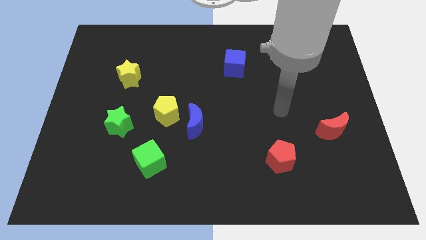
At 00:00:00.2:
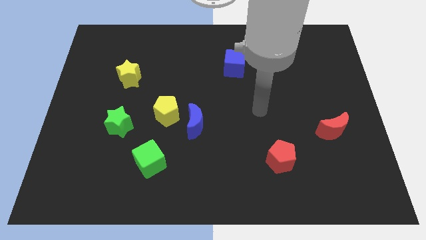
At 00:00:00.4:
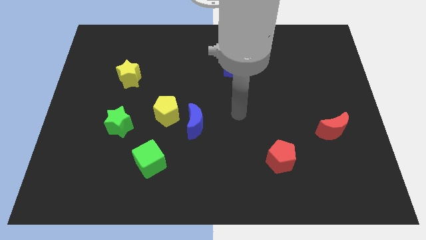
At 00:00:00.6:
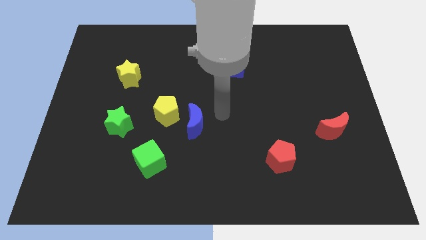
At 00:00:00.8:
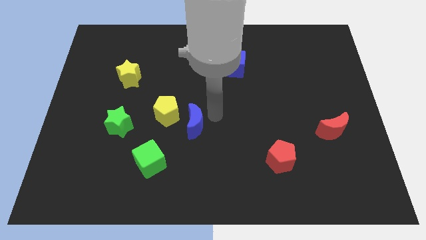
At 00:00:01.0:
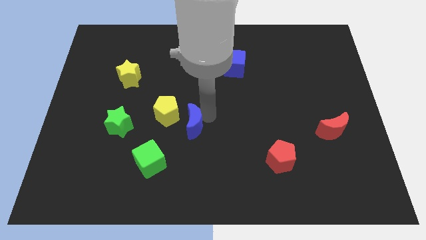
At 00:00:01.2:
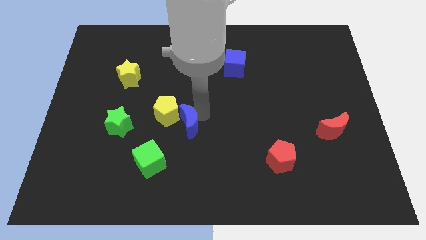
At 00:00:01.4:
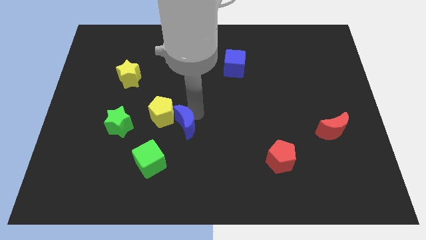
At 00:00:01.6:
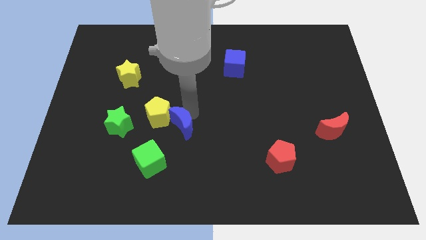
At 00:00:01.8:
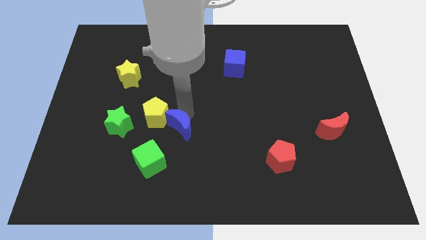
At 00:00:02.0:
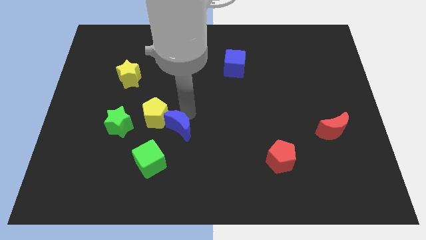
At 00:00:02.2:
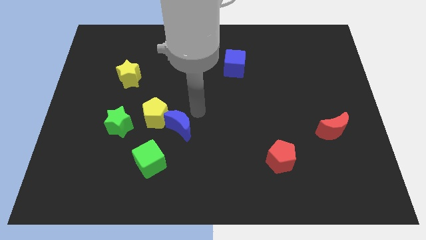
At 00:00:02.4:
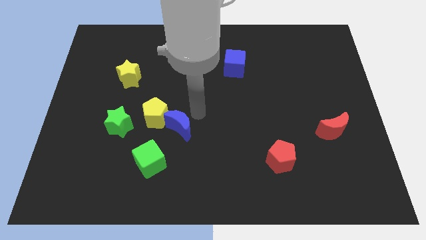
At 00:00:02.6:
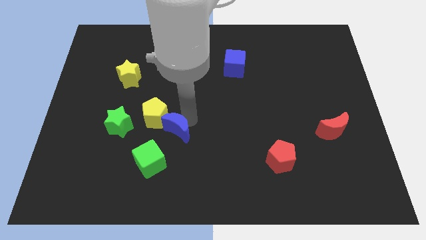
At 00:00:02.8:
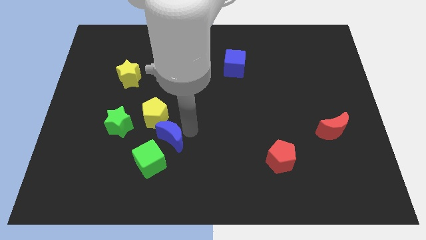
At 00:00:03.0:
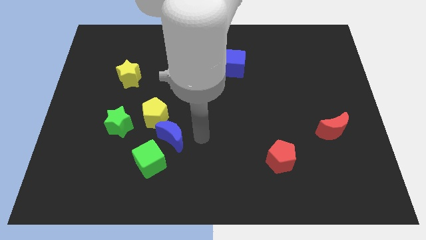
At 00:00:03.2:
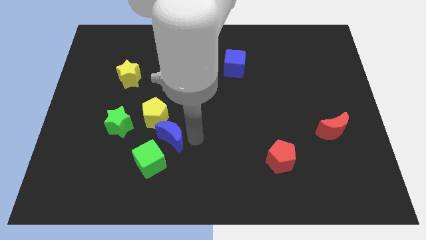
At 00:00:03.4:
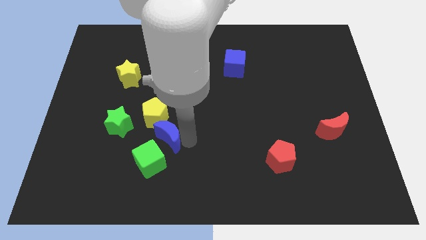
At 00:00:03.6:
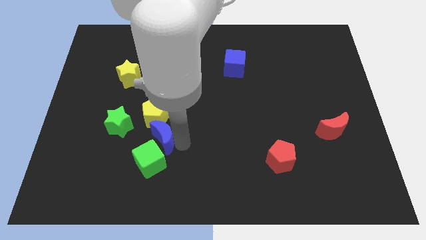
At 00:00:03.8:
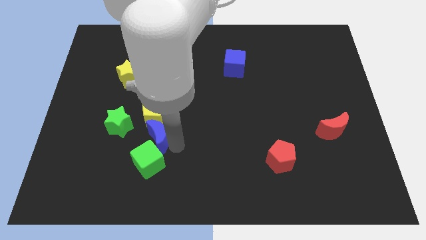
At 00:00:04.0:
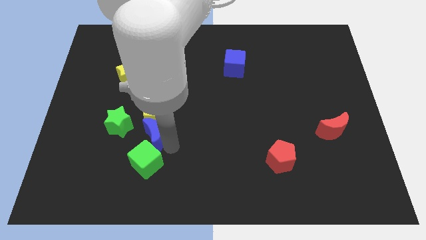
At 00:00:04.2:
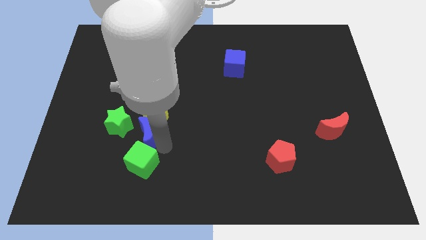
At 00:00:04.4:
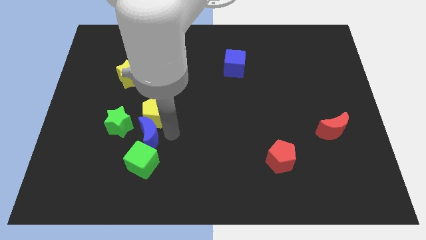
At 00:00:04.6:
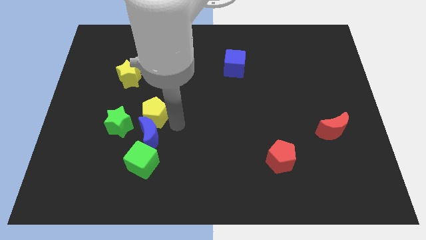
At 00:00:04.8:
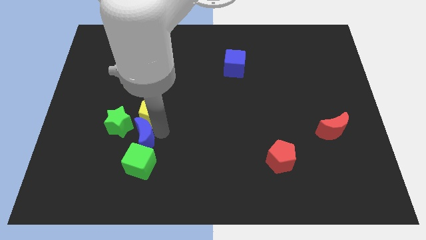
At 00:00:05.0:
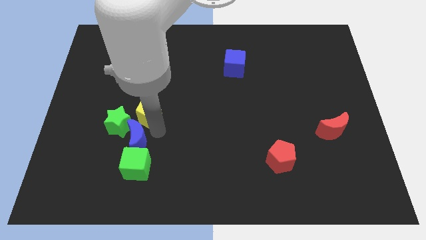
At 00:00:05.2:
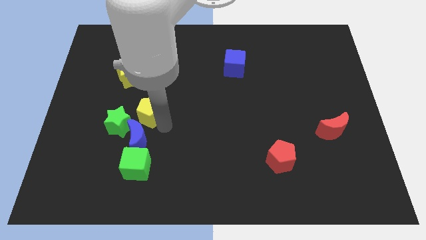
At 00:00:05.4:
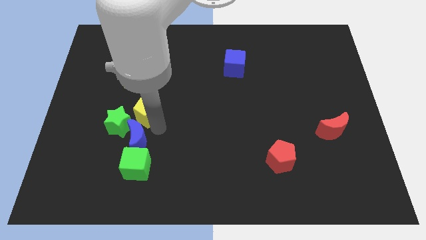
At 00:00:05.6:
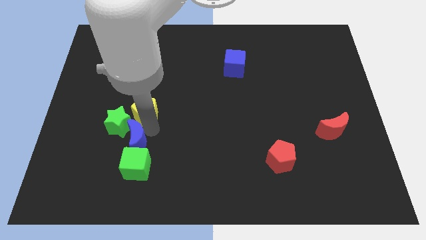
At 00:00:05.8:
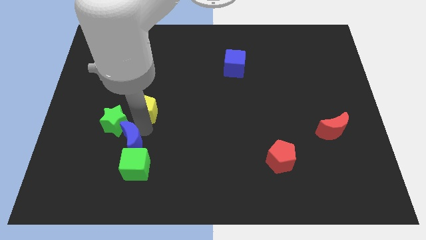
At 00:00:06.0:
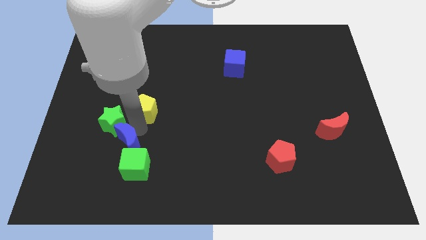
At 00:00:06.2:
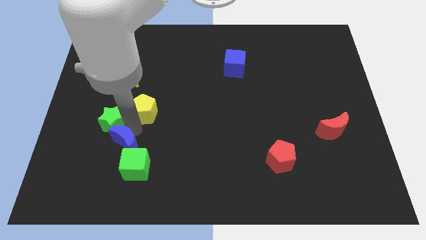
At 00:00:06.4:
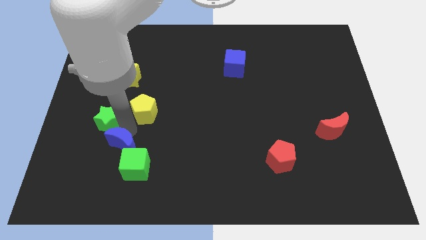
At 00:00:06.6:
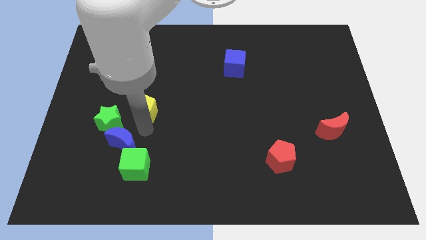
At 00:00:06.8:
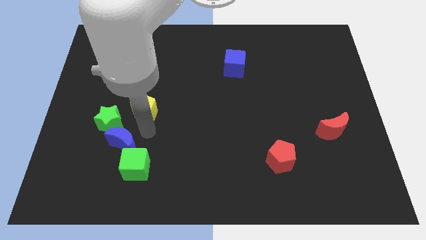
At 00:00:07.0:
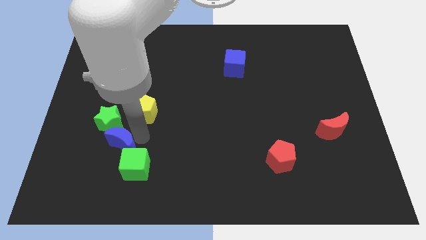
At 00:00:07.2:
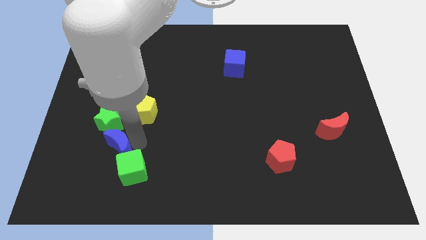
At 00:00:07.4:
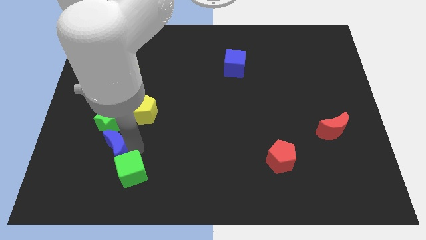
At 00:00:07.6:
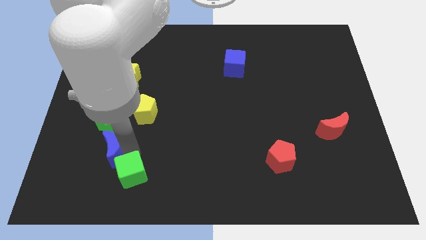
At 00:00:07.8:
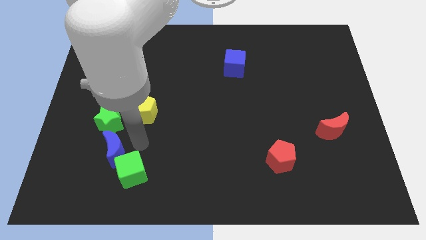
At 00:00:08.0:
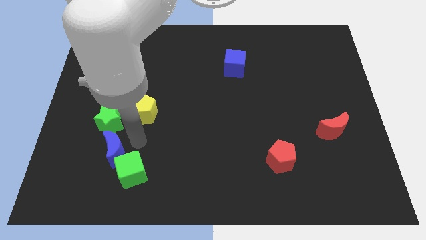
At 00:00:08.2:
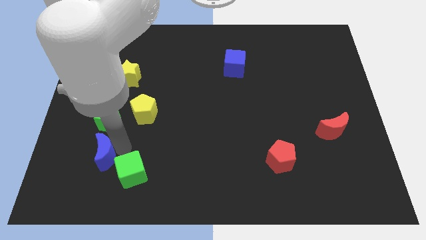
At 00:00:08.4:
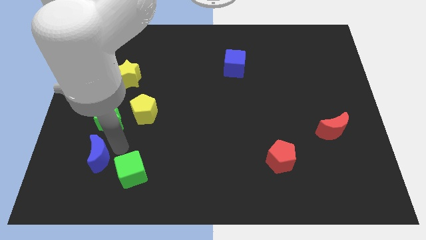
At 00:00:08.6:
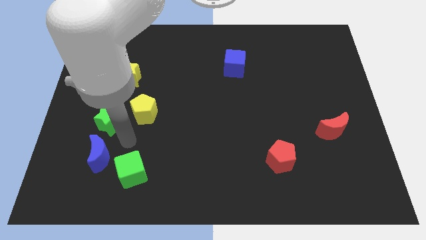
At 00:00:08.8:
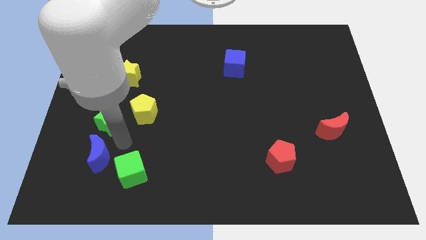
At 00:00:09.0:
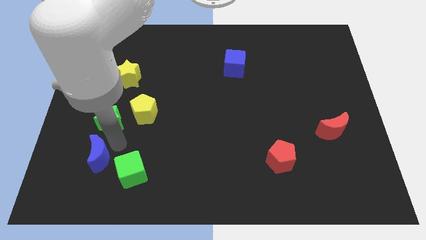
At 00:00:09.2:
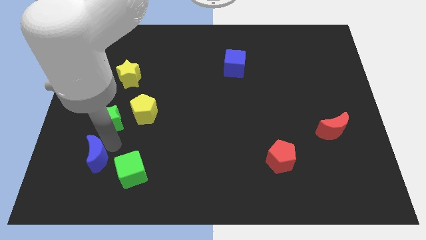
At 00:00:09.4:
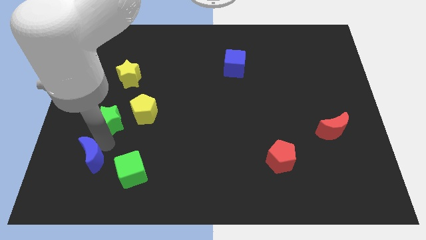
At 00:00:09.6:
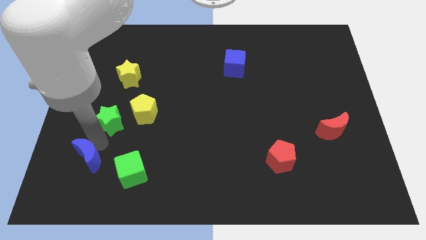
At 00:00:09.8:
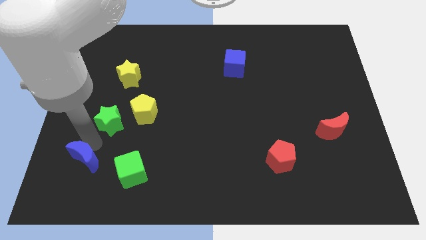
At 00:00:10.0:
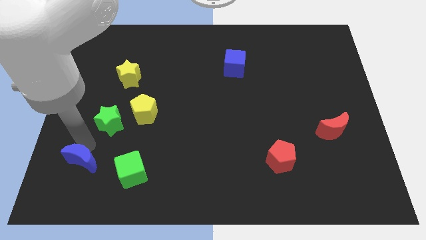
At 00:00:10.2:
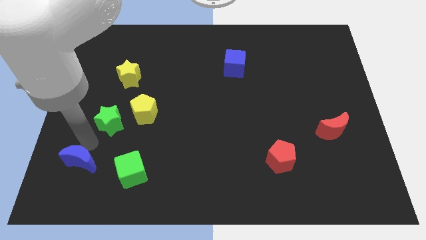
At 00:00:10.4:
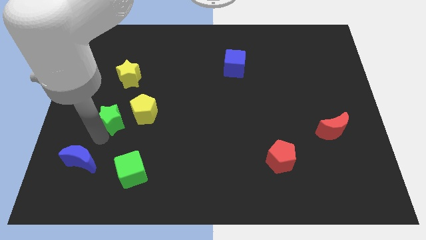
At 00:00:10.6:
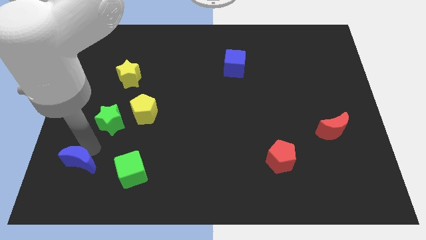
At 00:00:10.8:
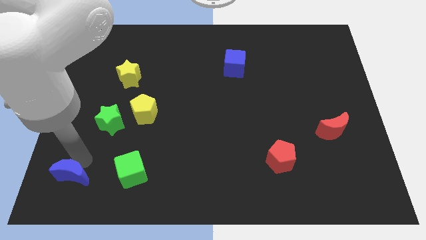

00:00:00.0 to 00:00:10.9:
put the blue moon to the bottom left corner

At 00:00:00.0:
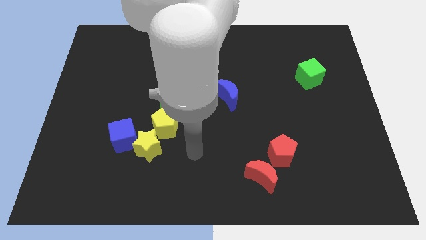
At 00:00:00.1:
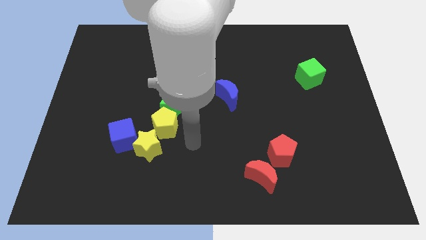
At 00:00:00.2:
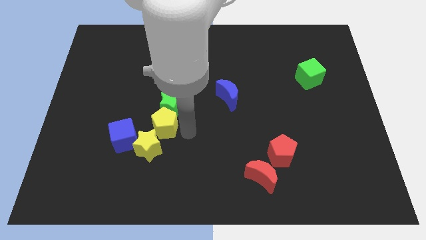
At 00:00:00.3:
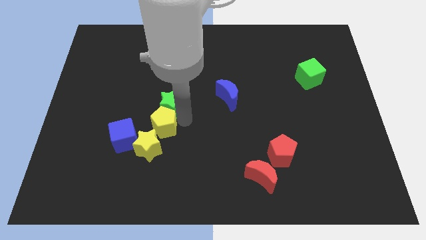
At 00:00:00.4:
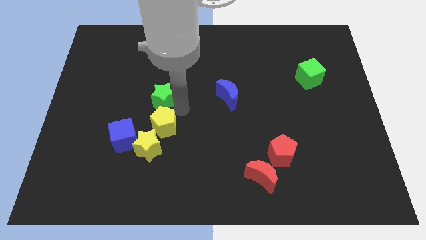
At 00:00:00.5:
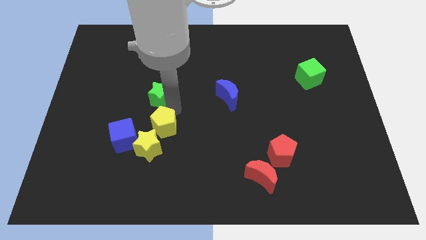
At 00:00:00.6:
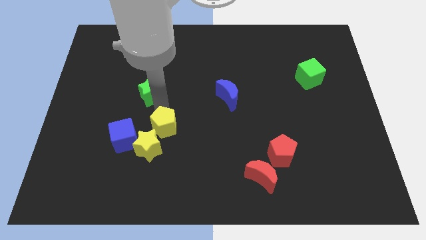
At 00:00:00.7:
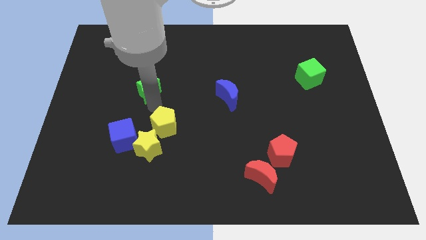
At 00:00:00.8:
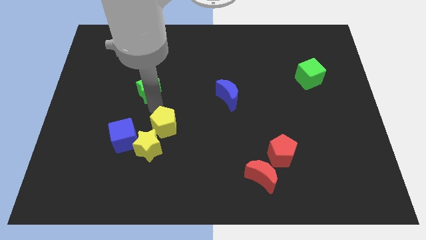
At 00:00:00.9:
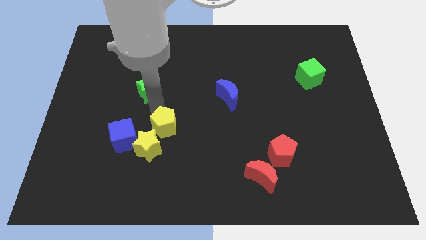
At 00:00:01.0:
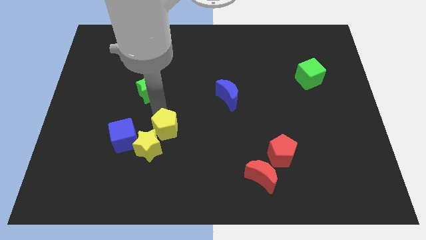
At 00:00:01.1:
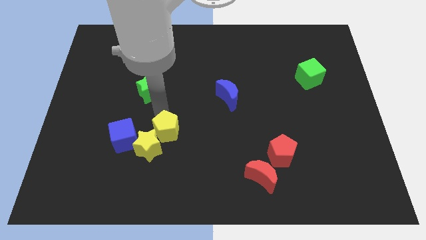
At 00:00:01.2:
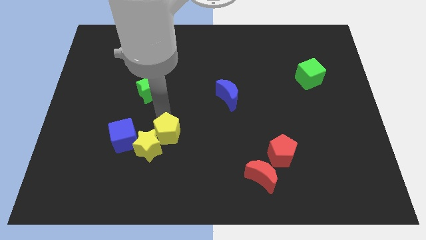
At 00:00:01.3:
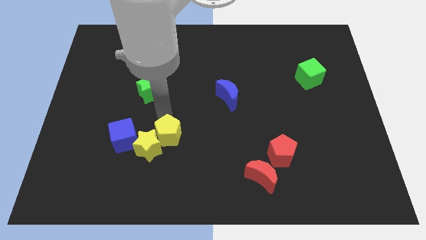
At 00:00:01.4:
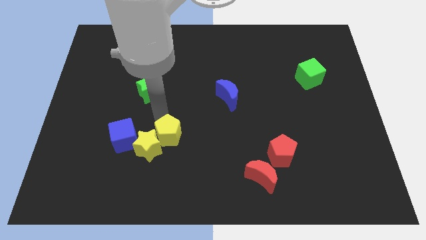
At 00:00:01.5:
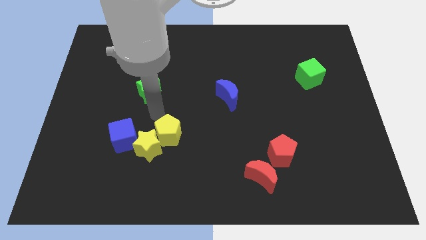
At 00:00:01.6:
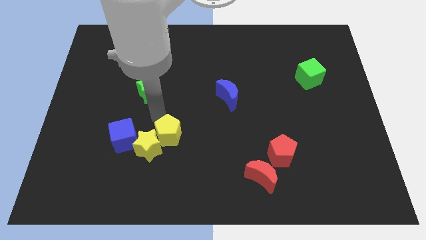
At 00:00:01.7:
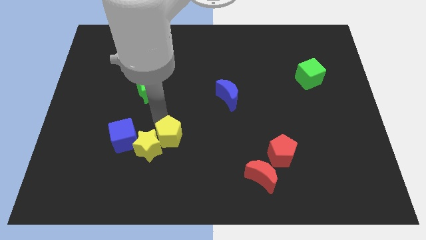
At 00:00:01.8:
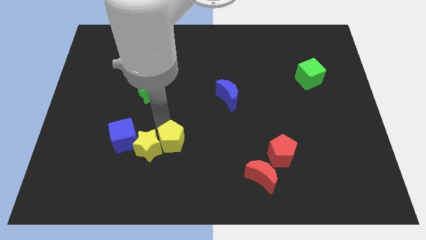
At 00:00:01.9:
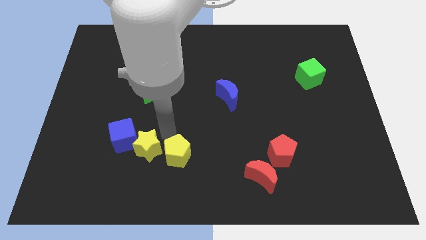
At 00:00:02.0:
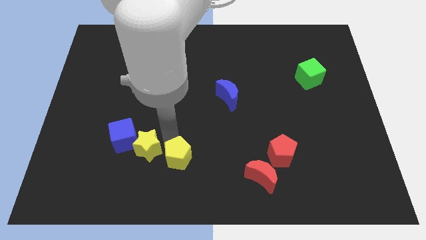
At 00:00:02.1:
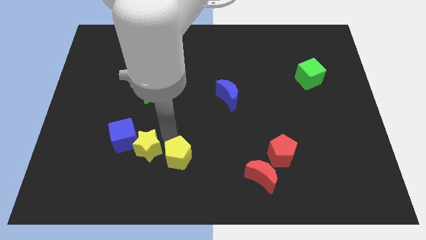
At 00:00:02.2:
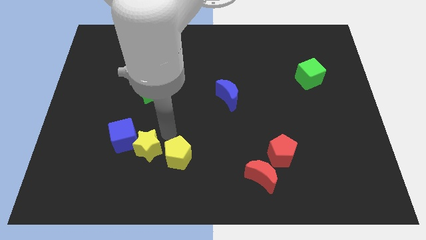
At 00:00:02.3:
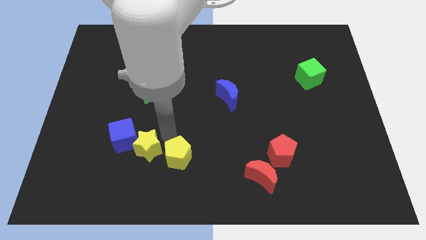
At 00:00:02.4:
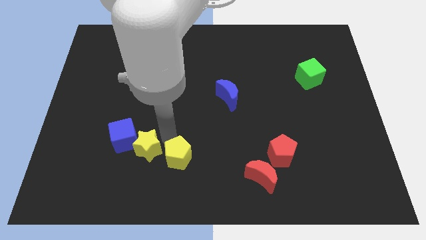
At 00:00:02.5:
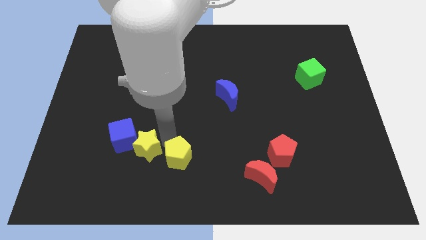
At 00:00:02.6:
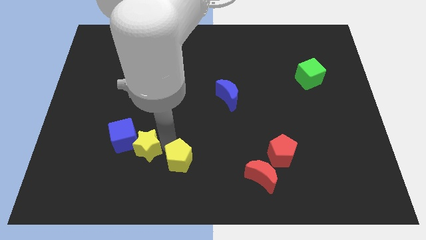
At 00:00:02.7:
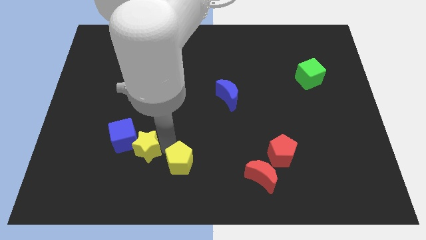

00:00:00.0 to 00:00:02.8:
slide the yellow pentagon to the bottom side
